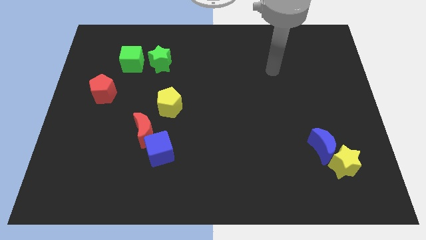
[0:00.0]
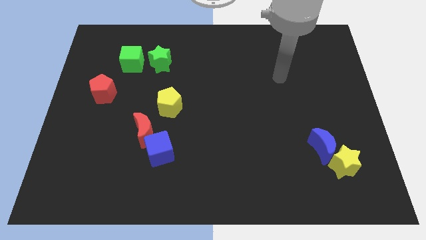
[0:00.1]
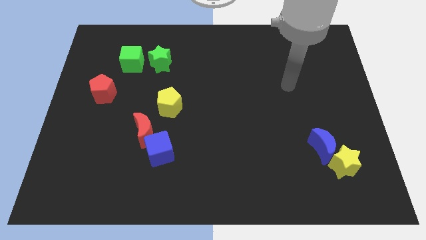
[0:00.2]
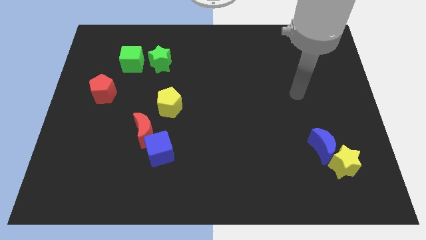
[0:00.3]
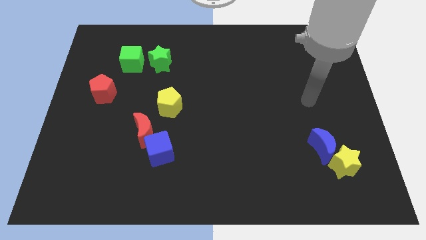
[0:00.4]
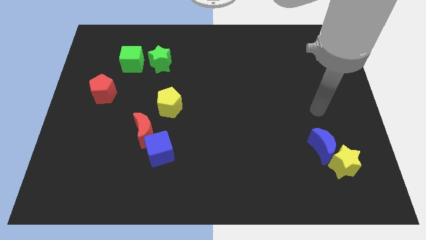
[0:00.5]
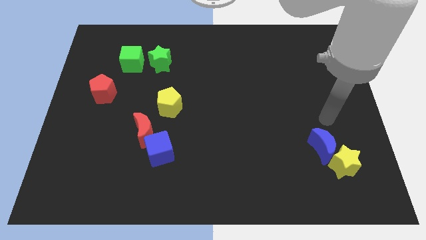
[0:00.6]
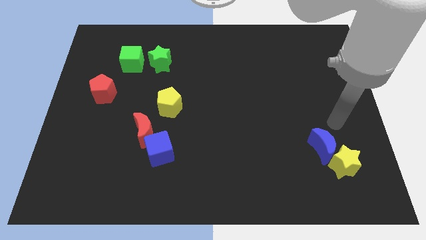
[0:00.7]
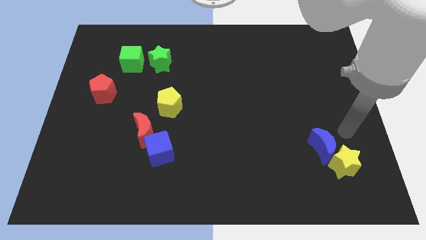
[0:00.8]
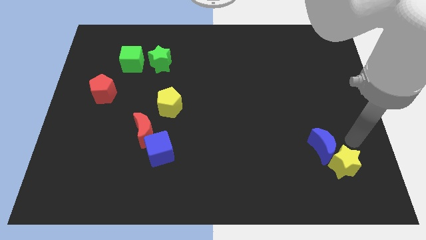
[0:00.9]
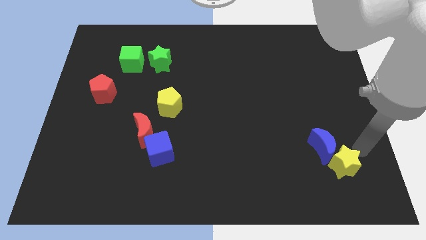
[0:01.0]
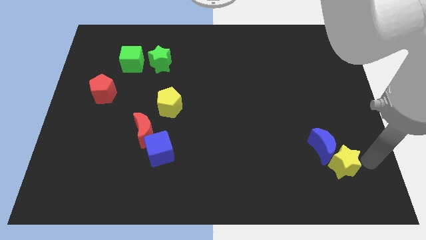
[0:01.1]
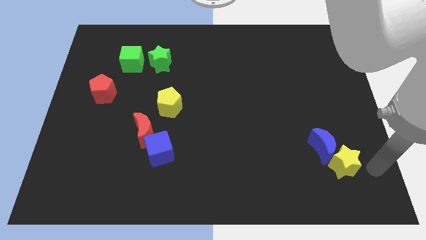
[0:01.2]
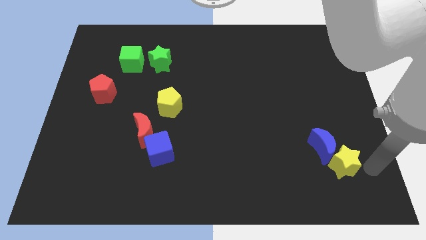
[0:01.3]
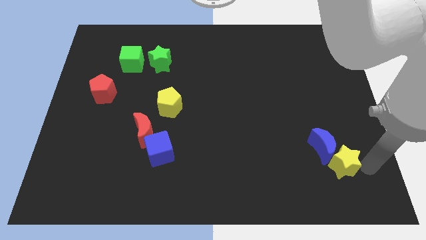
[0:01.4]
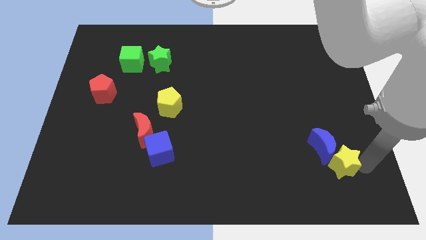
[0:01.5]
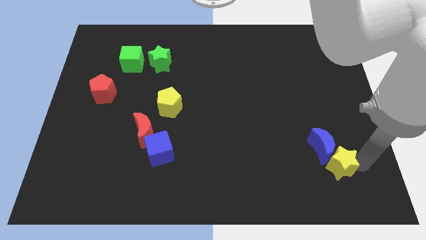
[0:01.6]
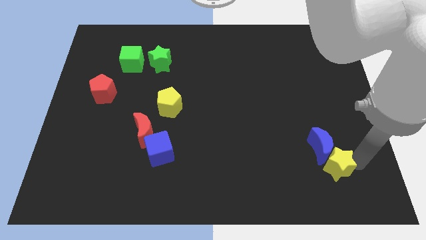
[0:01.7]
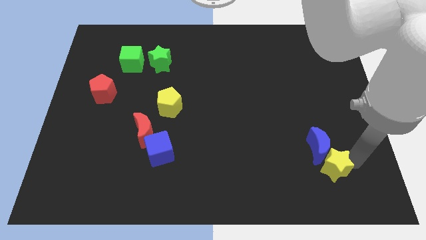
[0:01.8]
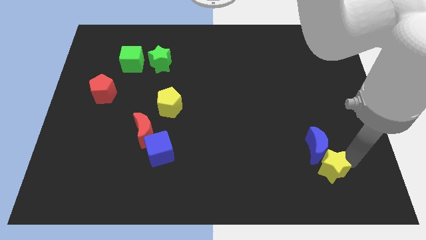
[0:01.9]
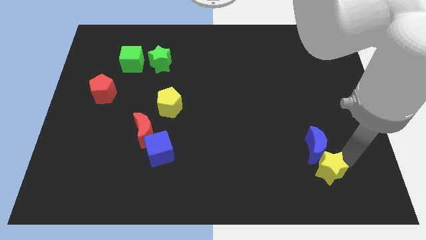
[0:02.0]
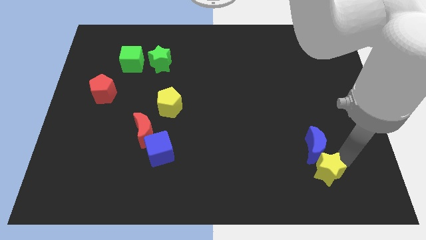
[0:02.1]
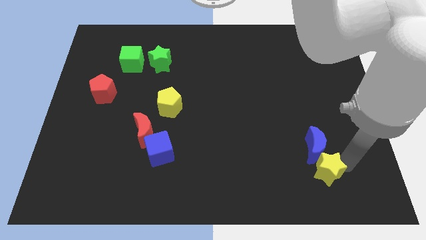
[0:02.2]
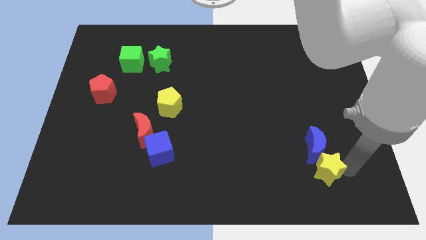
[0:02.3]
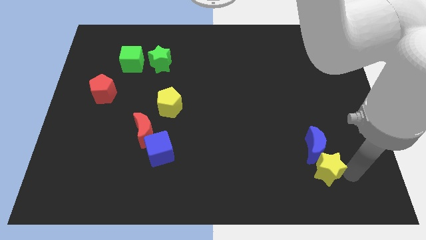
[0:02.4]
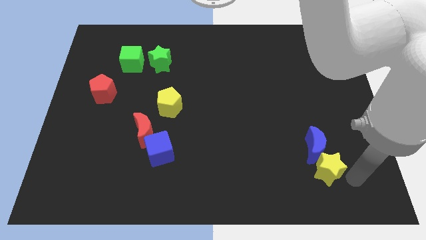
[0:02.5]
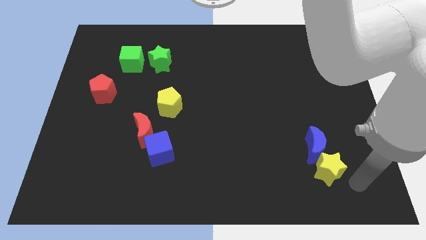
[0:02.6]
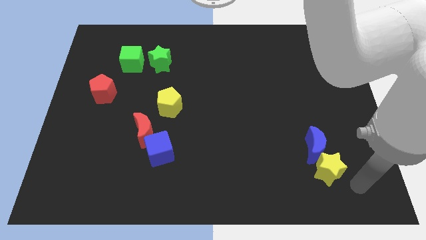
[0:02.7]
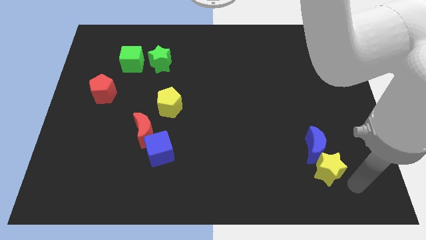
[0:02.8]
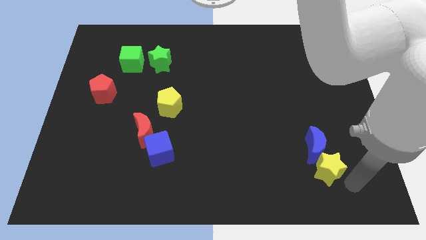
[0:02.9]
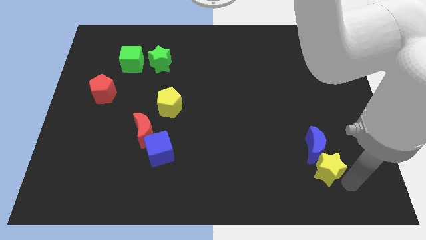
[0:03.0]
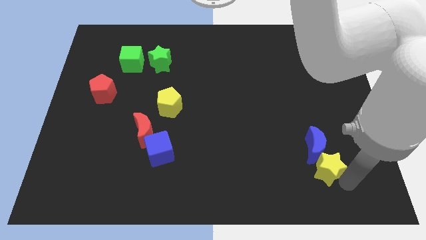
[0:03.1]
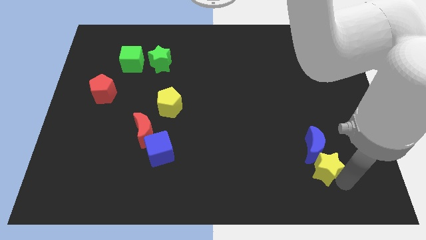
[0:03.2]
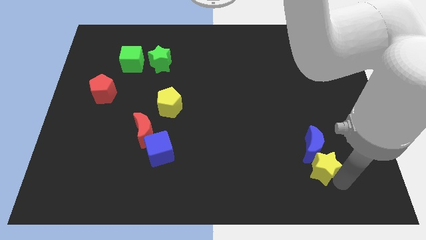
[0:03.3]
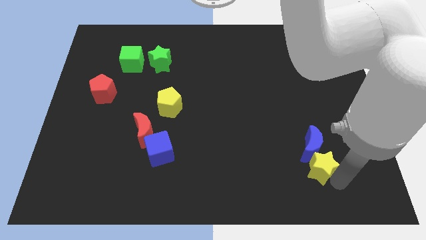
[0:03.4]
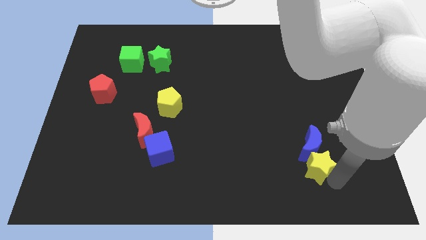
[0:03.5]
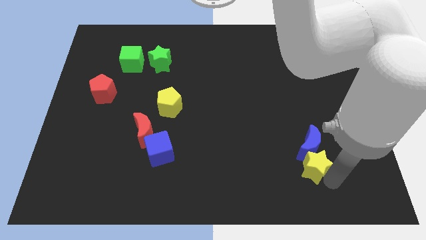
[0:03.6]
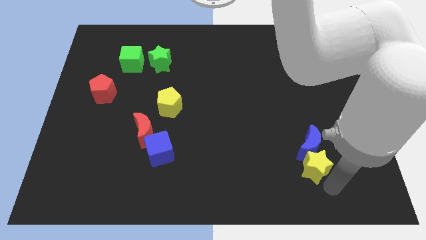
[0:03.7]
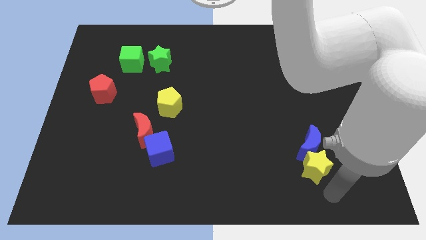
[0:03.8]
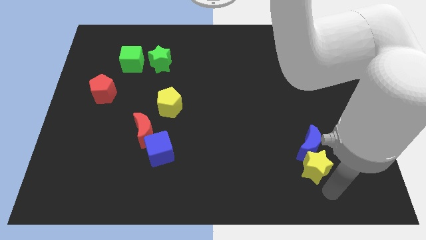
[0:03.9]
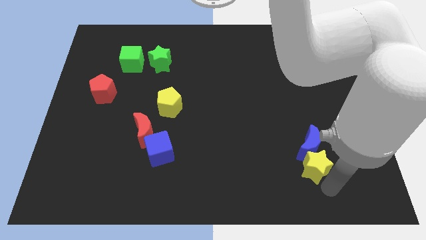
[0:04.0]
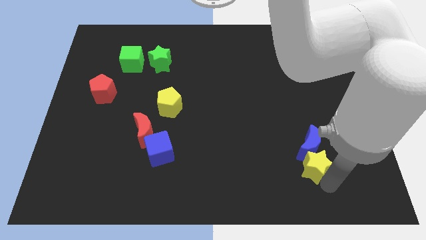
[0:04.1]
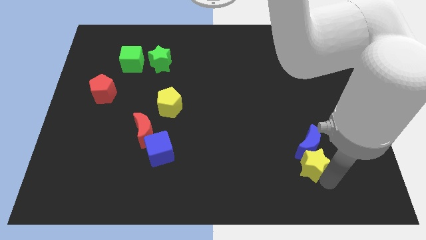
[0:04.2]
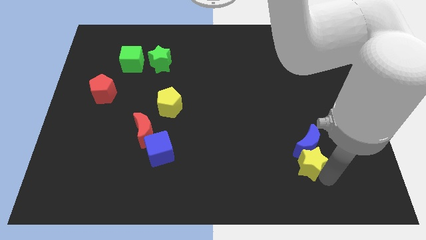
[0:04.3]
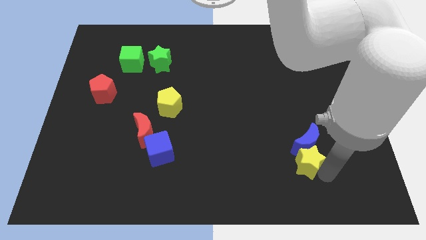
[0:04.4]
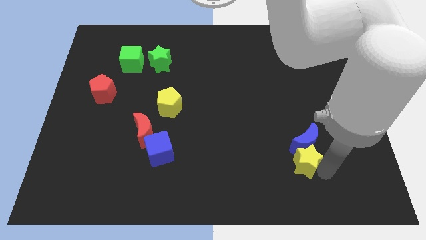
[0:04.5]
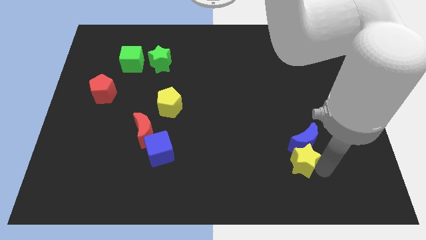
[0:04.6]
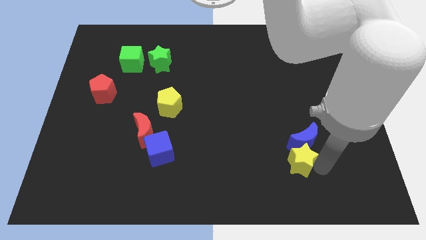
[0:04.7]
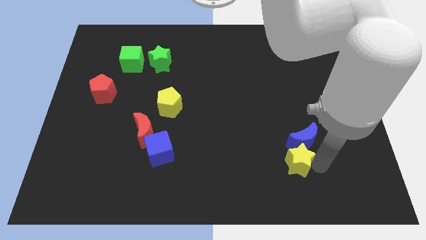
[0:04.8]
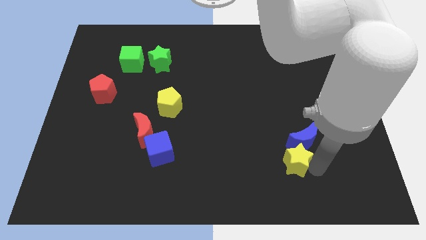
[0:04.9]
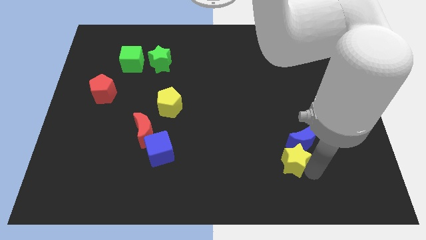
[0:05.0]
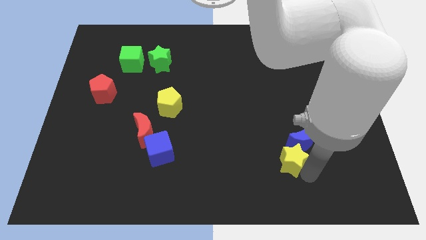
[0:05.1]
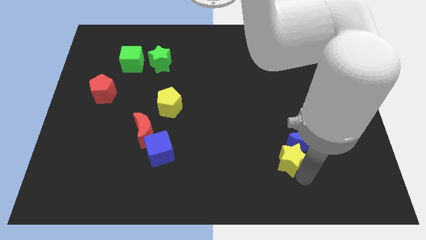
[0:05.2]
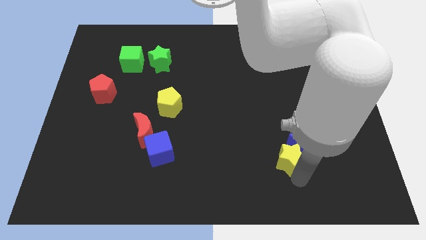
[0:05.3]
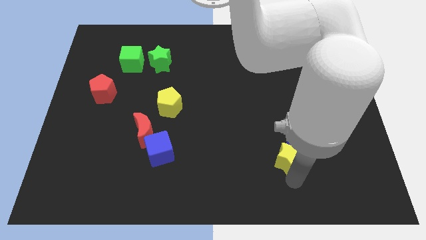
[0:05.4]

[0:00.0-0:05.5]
push the yellow star a little bit up and then to the left

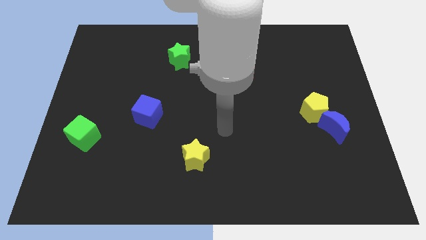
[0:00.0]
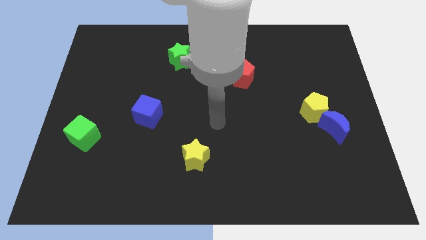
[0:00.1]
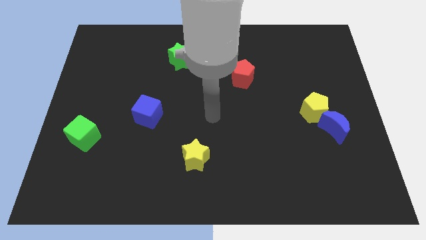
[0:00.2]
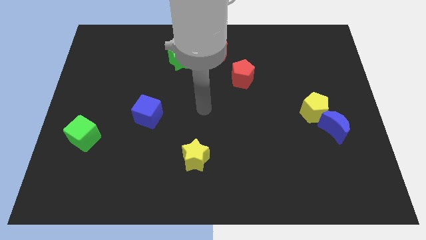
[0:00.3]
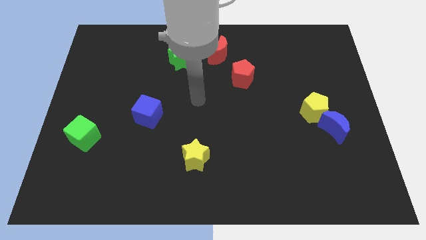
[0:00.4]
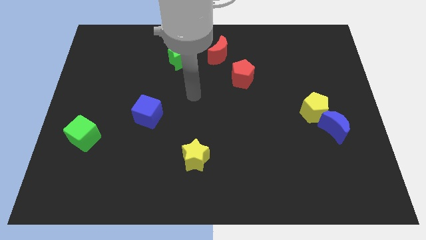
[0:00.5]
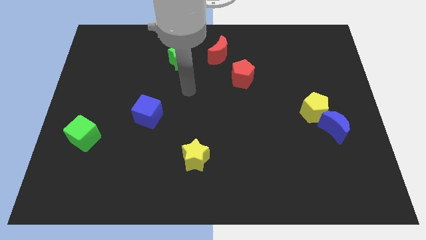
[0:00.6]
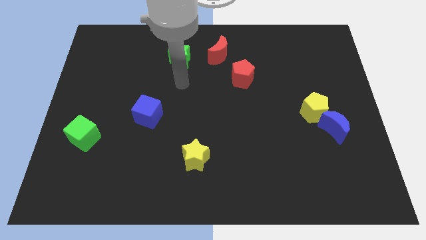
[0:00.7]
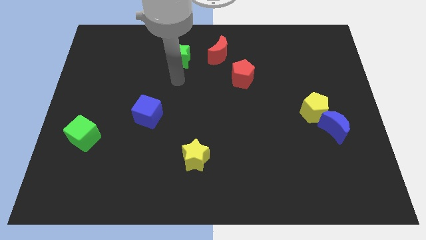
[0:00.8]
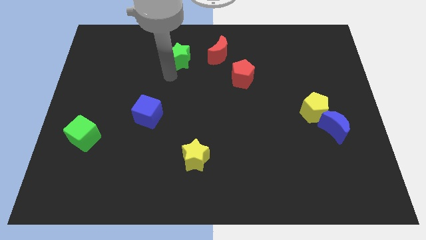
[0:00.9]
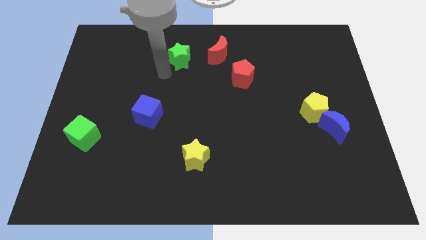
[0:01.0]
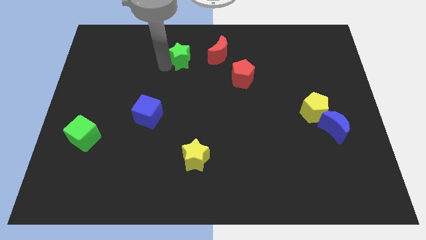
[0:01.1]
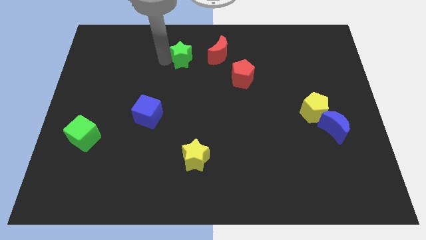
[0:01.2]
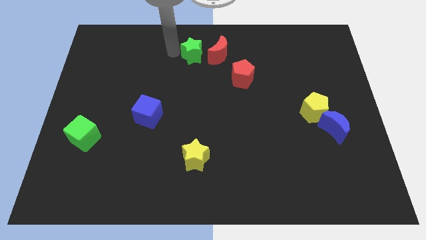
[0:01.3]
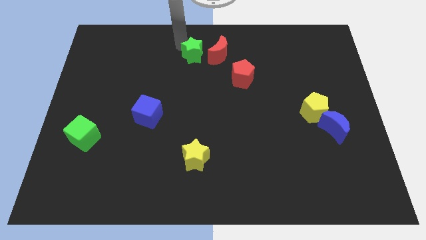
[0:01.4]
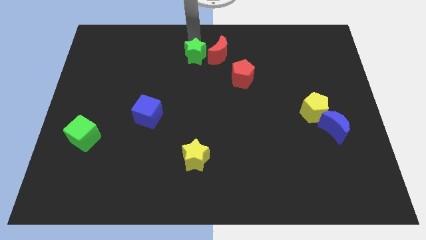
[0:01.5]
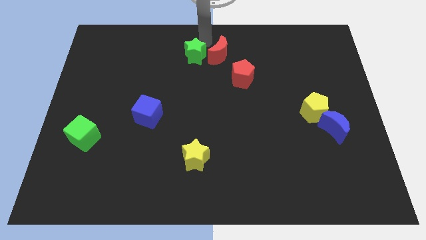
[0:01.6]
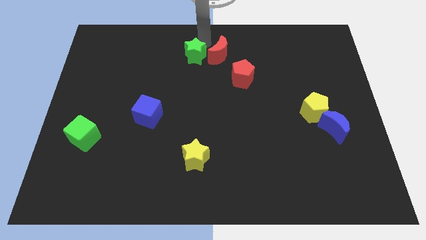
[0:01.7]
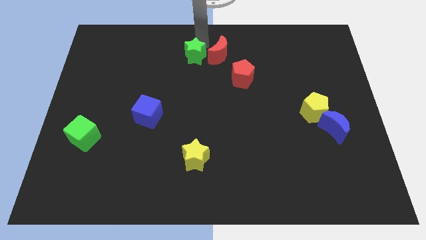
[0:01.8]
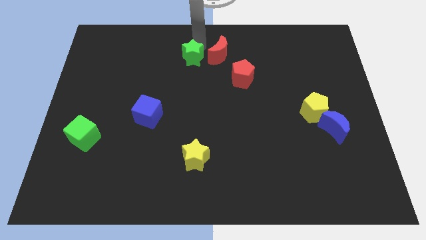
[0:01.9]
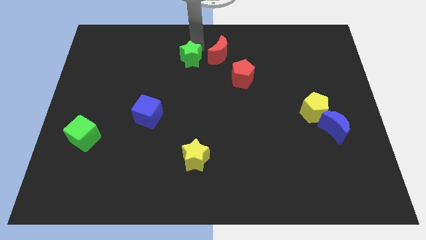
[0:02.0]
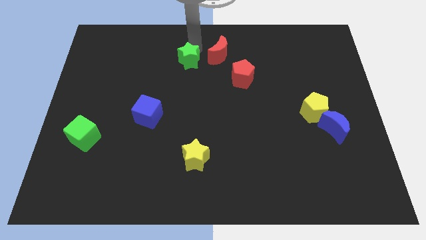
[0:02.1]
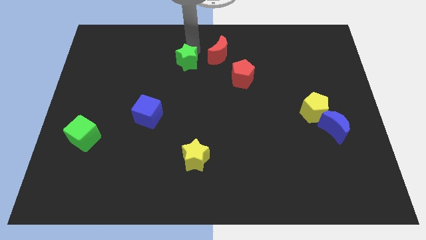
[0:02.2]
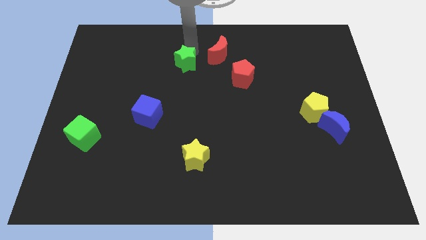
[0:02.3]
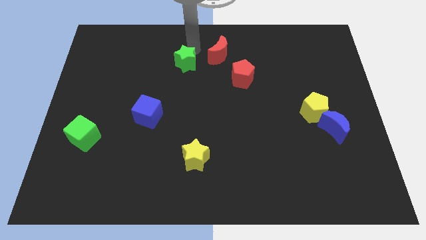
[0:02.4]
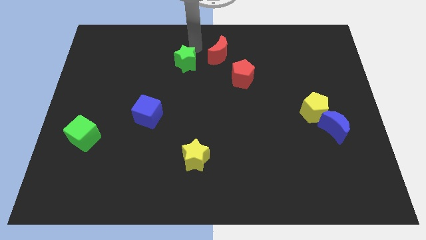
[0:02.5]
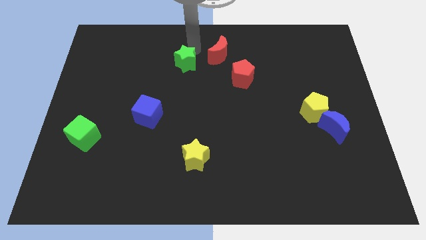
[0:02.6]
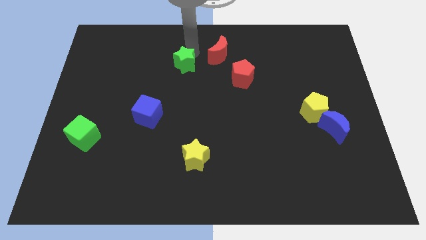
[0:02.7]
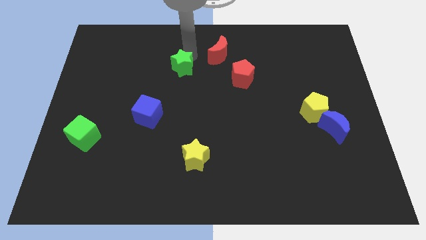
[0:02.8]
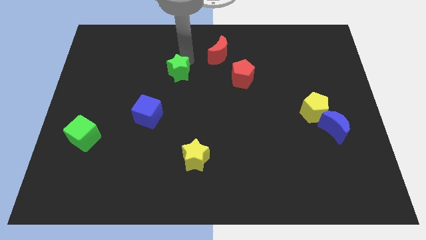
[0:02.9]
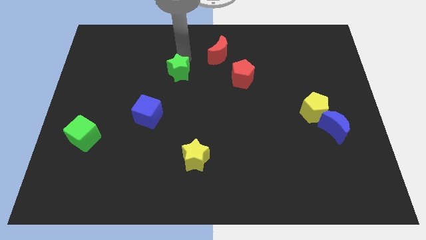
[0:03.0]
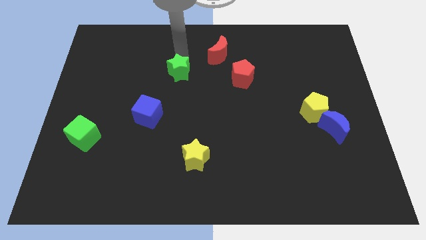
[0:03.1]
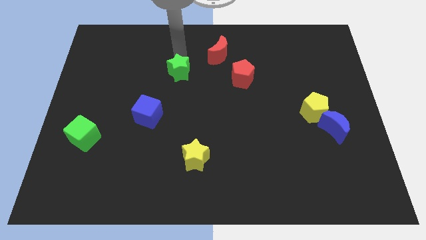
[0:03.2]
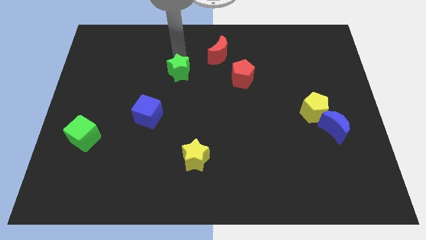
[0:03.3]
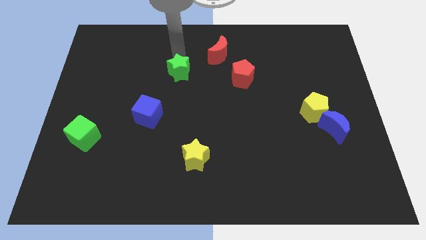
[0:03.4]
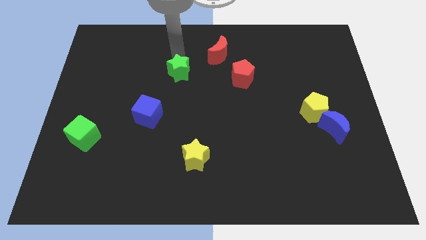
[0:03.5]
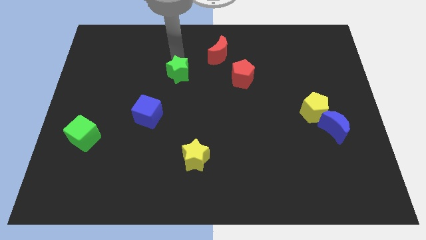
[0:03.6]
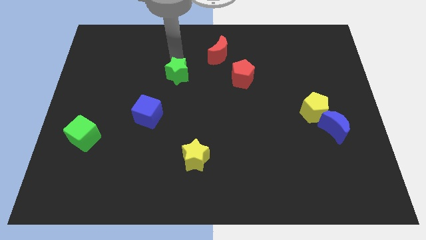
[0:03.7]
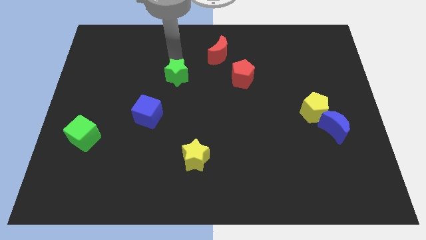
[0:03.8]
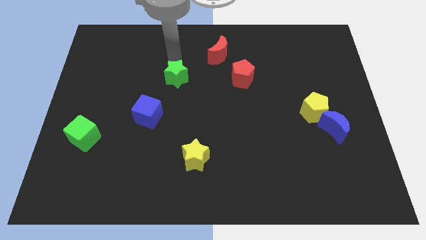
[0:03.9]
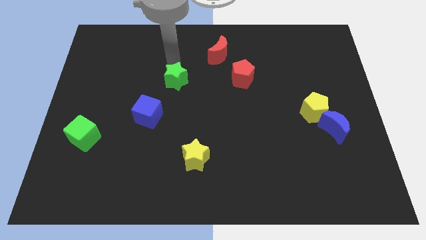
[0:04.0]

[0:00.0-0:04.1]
move the green star a bit down
